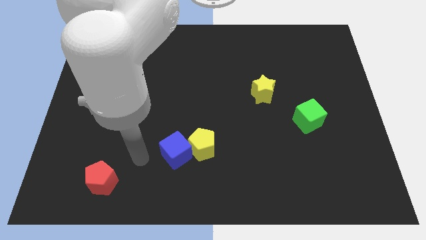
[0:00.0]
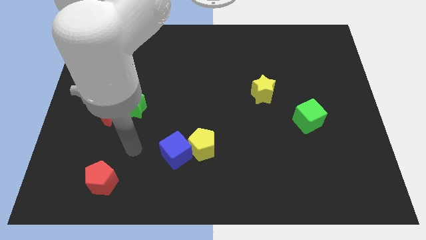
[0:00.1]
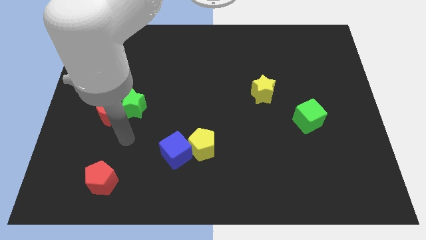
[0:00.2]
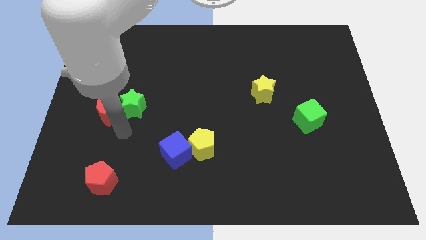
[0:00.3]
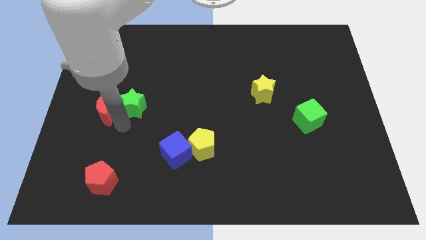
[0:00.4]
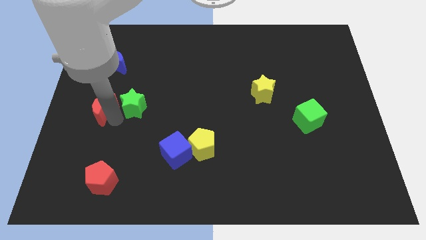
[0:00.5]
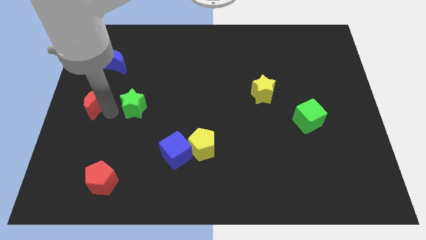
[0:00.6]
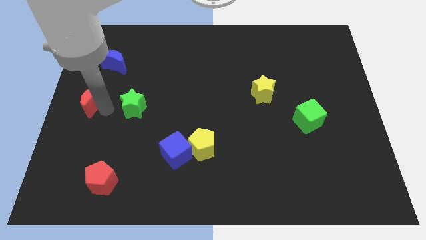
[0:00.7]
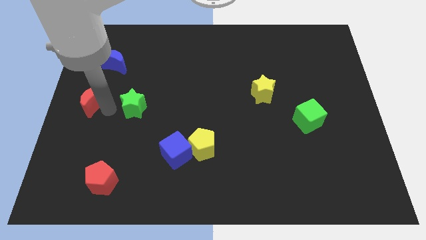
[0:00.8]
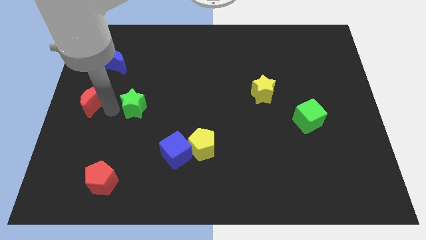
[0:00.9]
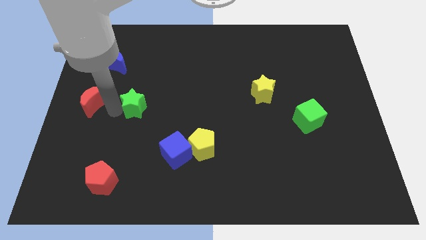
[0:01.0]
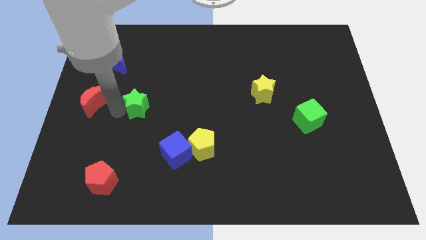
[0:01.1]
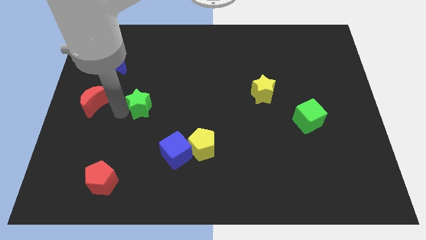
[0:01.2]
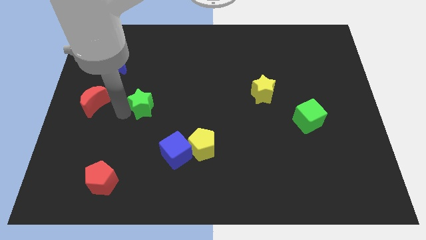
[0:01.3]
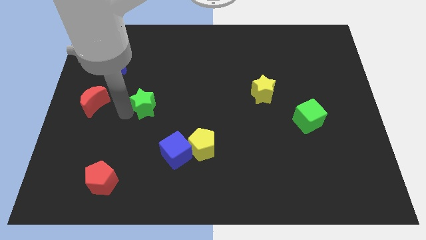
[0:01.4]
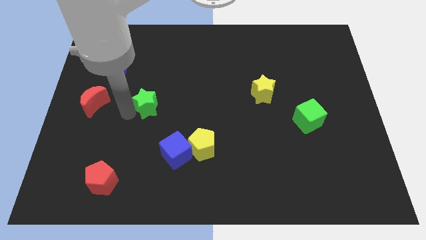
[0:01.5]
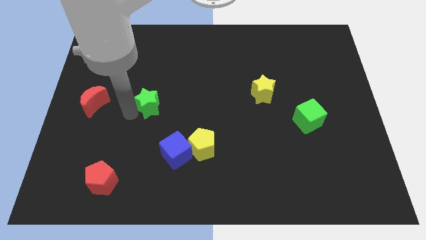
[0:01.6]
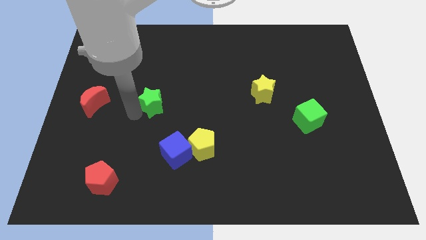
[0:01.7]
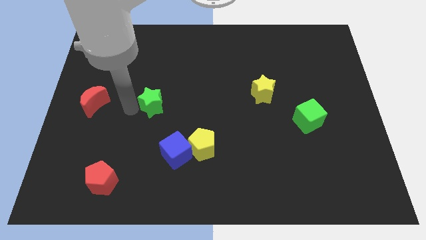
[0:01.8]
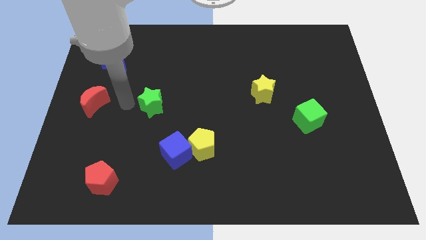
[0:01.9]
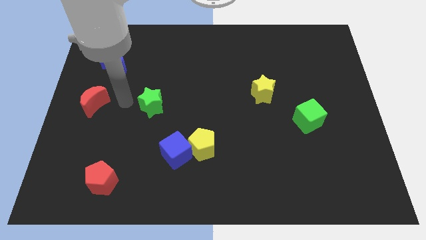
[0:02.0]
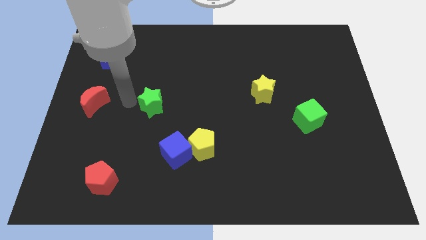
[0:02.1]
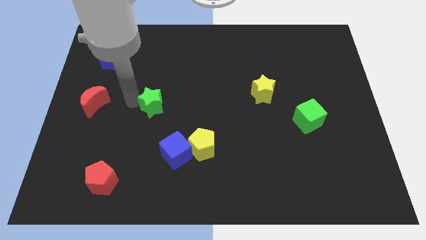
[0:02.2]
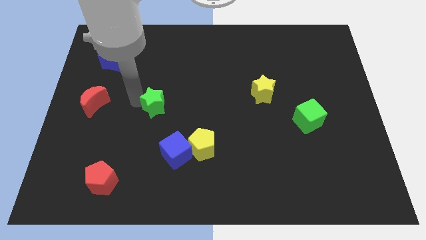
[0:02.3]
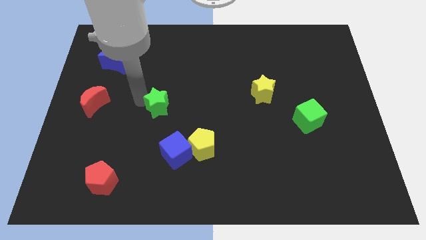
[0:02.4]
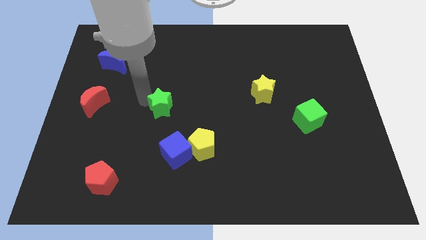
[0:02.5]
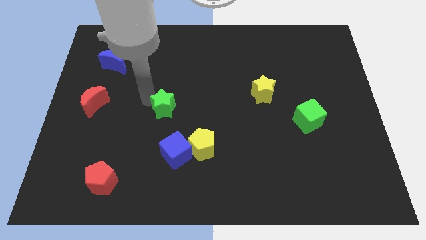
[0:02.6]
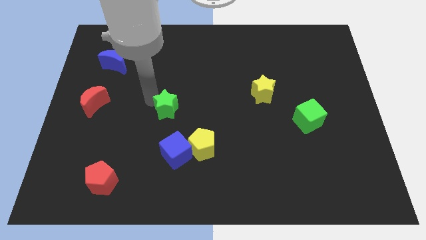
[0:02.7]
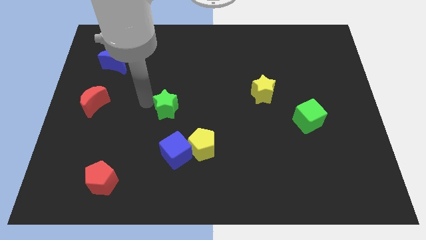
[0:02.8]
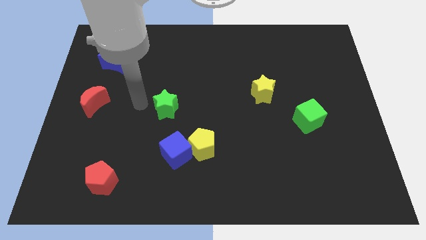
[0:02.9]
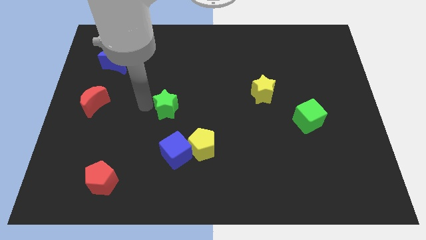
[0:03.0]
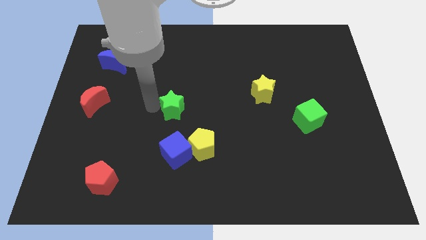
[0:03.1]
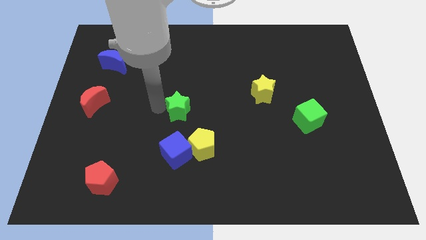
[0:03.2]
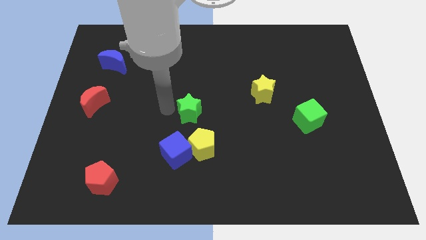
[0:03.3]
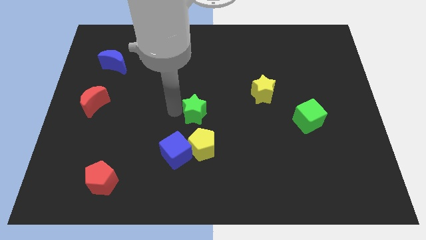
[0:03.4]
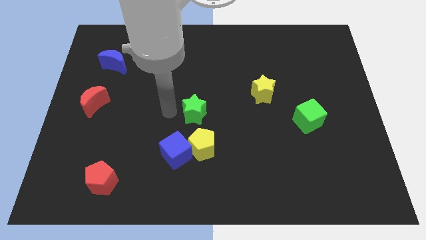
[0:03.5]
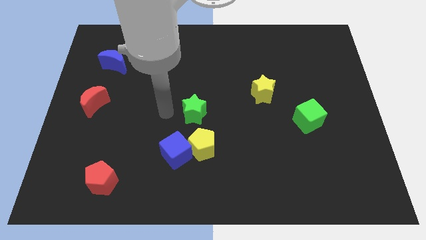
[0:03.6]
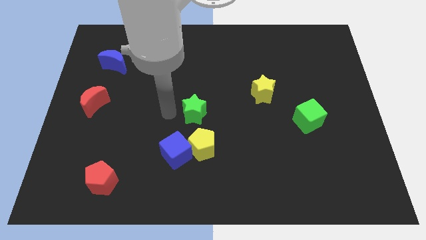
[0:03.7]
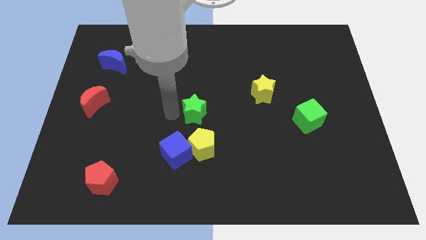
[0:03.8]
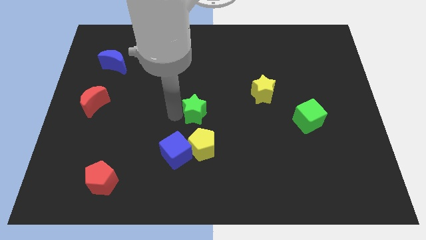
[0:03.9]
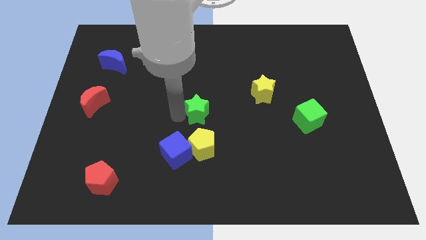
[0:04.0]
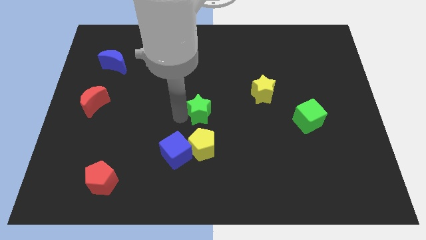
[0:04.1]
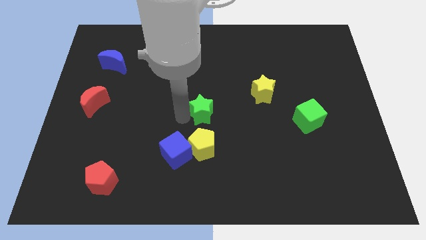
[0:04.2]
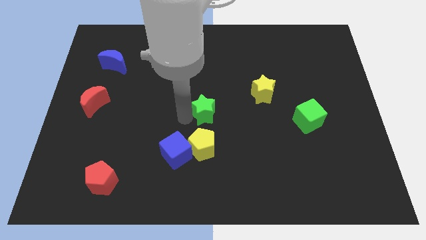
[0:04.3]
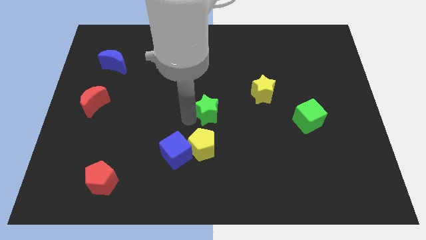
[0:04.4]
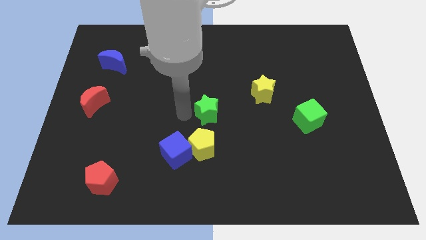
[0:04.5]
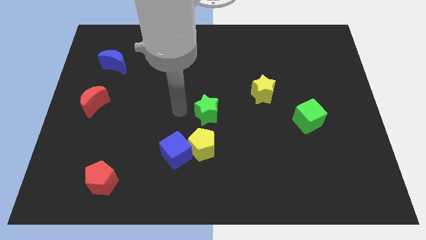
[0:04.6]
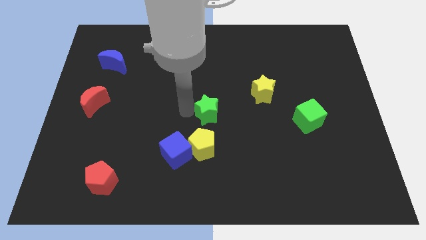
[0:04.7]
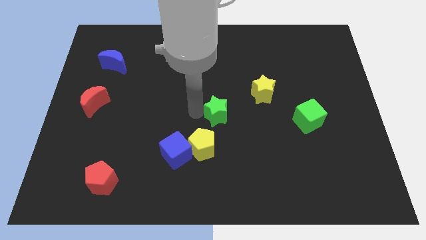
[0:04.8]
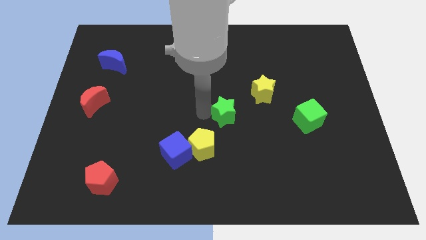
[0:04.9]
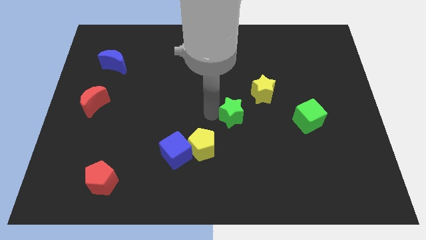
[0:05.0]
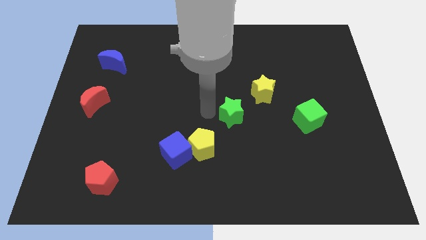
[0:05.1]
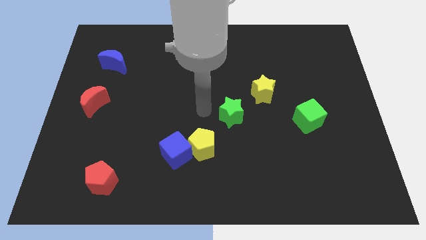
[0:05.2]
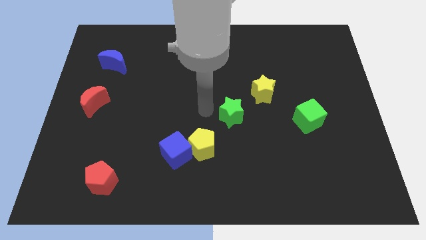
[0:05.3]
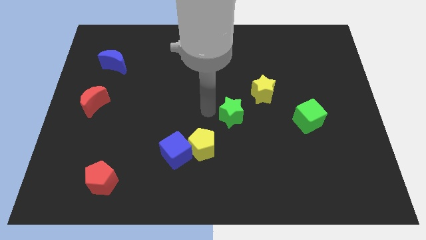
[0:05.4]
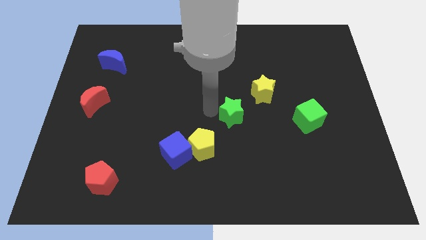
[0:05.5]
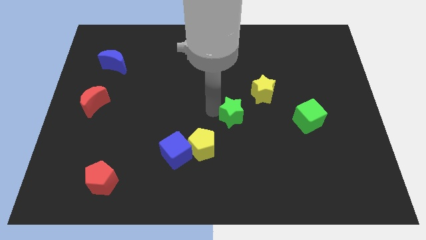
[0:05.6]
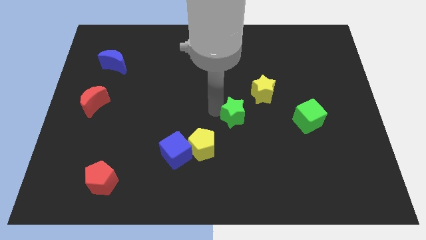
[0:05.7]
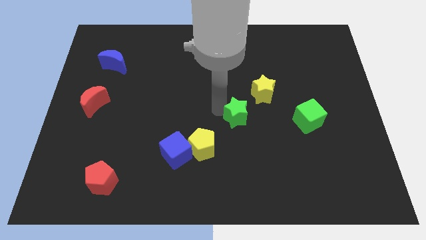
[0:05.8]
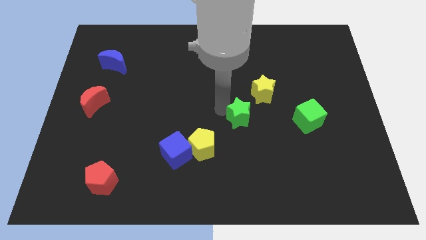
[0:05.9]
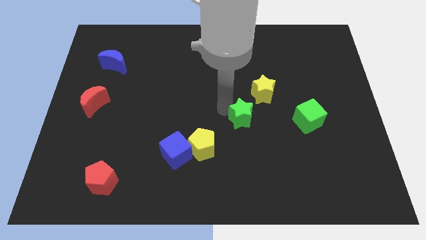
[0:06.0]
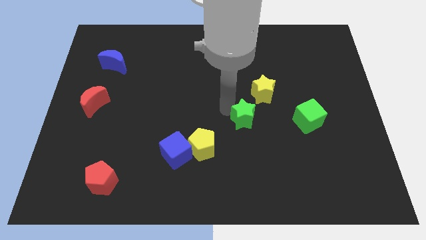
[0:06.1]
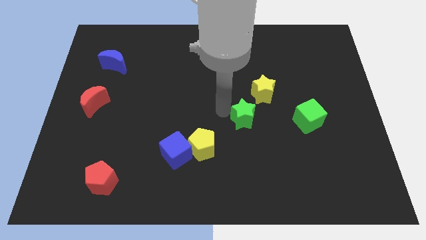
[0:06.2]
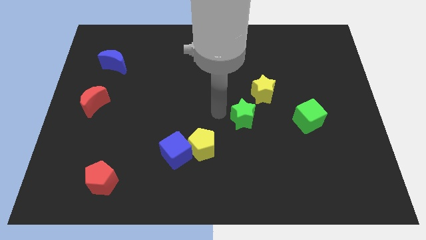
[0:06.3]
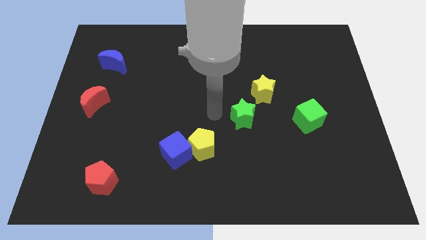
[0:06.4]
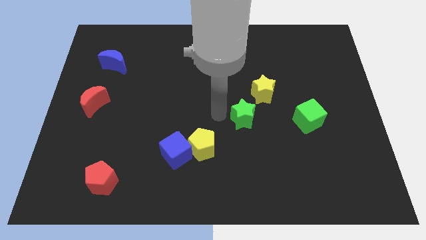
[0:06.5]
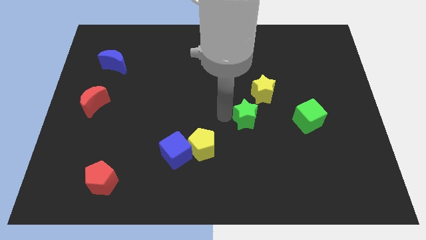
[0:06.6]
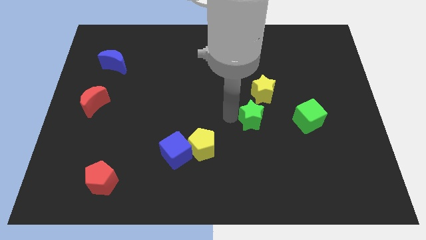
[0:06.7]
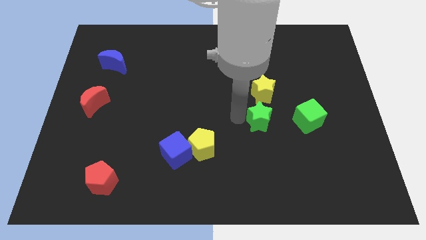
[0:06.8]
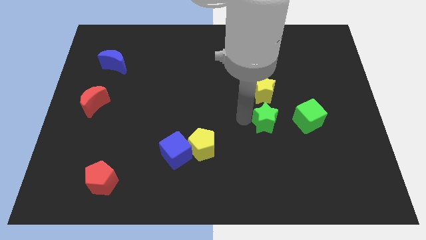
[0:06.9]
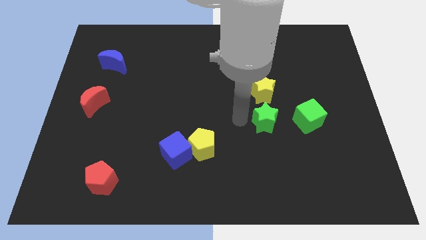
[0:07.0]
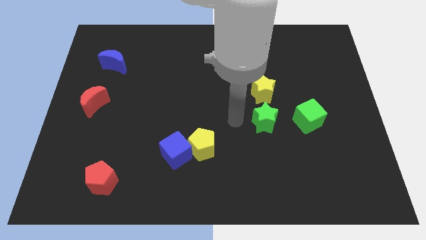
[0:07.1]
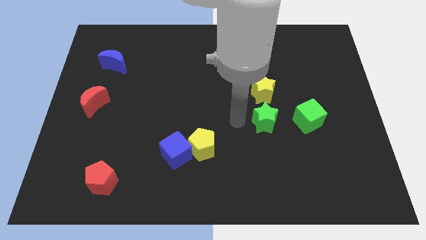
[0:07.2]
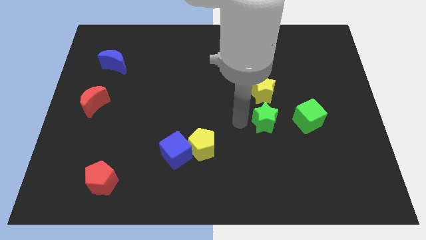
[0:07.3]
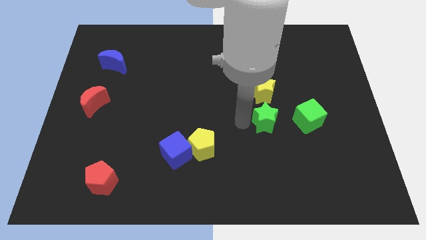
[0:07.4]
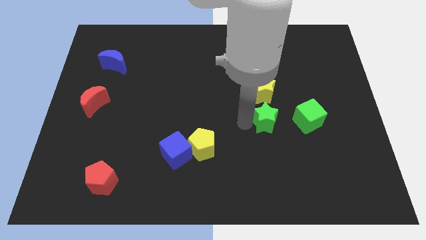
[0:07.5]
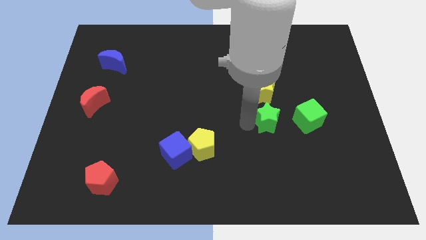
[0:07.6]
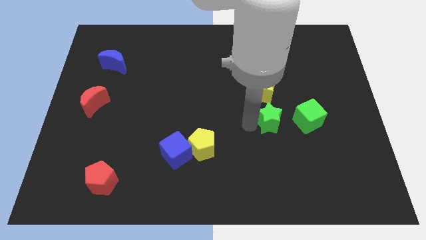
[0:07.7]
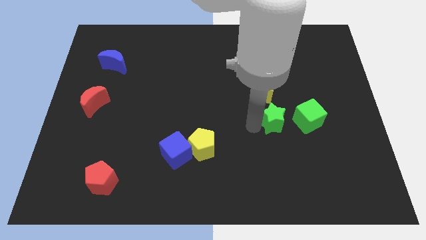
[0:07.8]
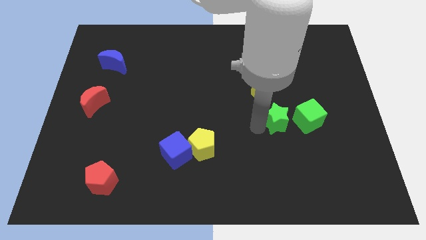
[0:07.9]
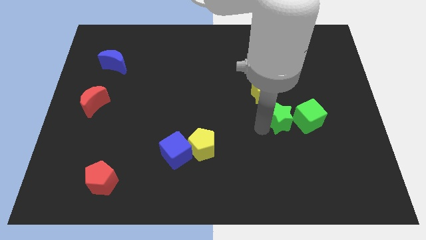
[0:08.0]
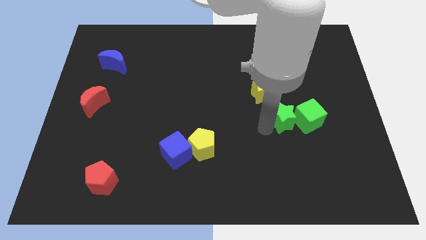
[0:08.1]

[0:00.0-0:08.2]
move the green star to the green cube
